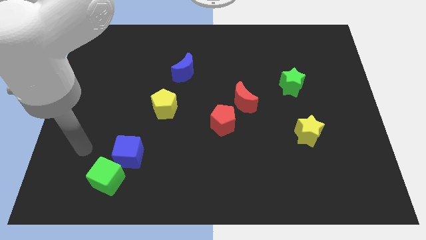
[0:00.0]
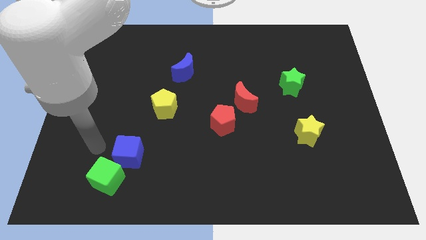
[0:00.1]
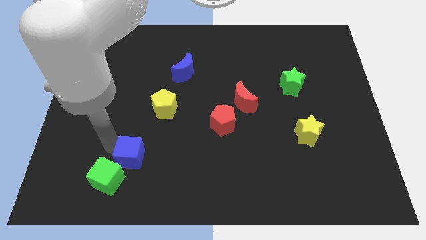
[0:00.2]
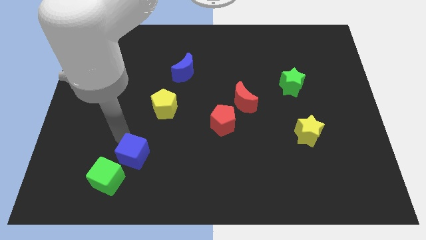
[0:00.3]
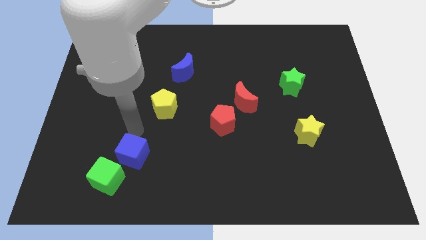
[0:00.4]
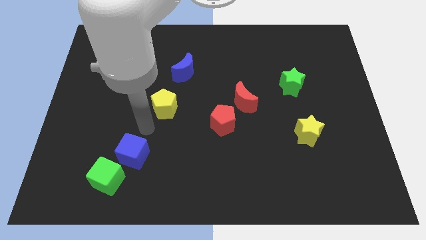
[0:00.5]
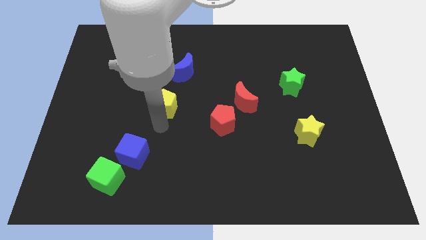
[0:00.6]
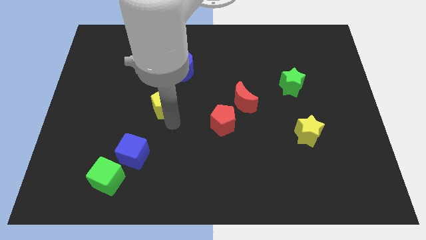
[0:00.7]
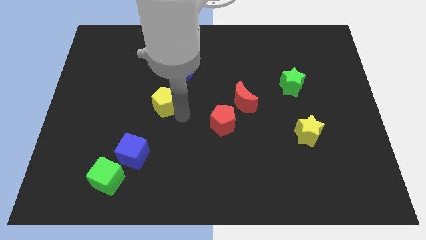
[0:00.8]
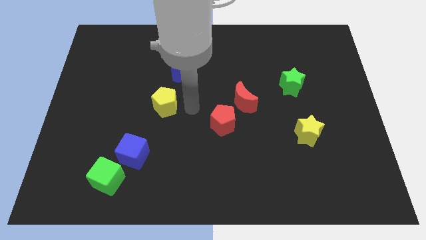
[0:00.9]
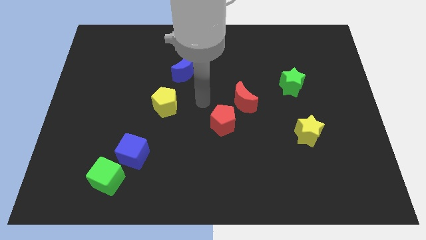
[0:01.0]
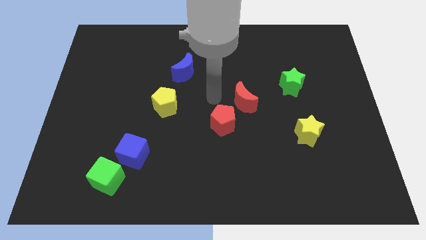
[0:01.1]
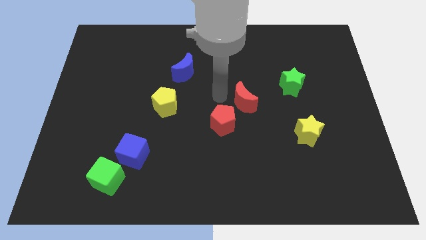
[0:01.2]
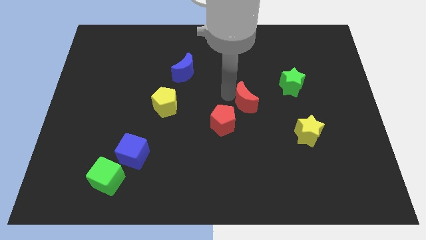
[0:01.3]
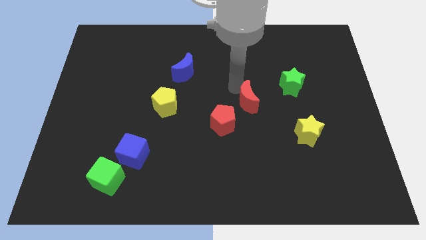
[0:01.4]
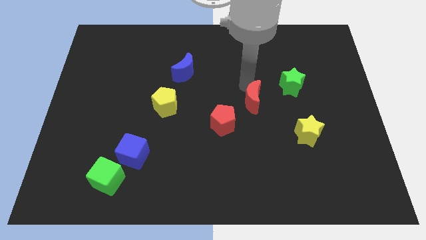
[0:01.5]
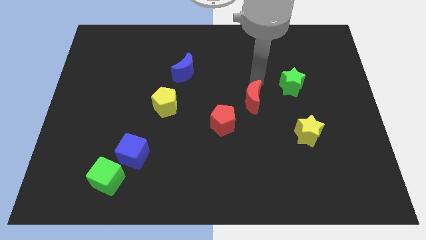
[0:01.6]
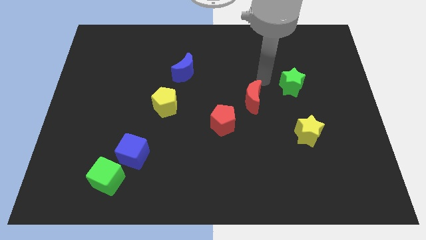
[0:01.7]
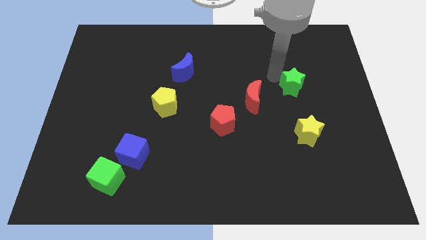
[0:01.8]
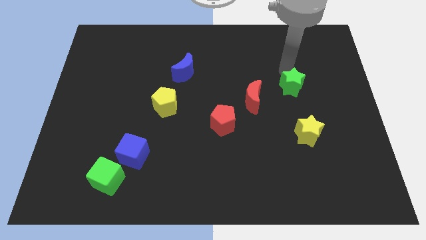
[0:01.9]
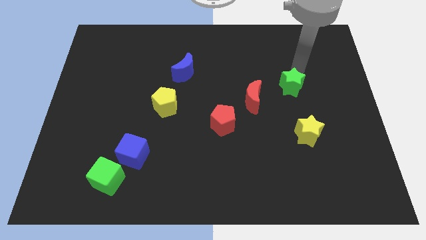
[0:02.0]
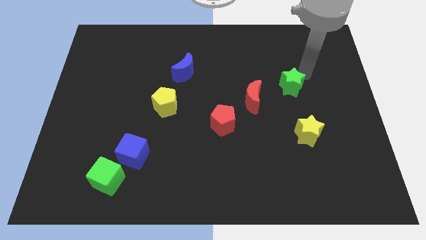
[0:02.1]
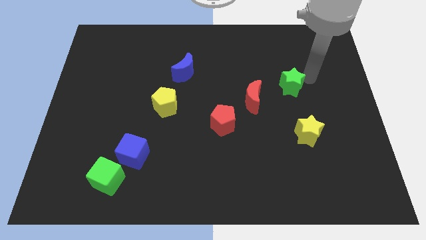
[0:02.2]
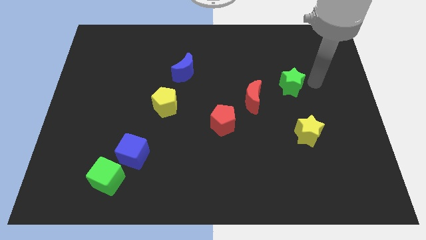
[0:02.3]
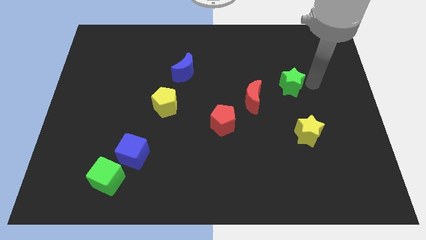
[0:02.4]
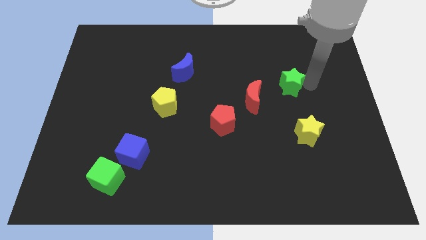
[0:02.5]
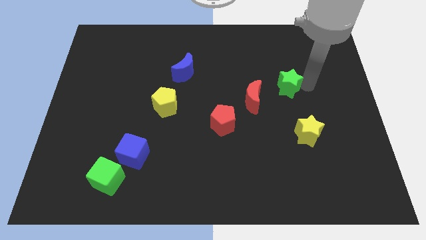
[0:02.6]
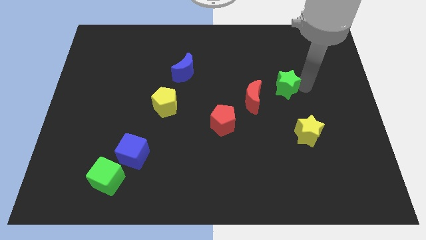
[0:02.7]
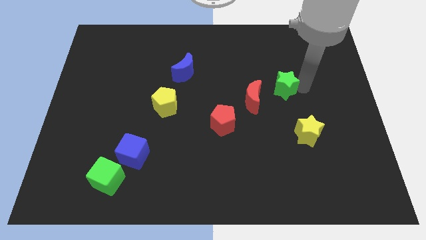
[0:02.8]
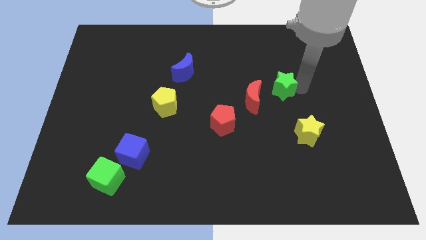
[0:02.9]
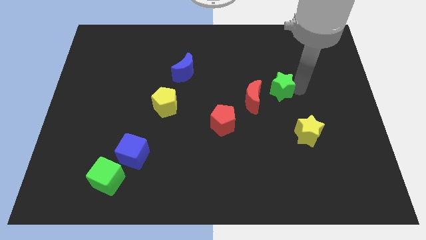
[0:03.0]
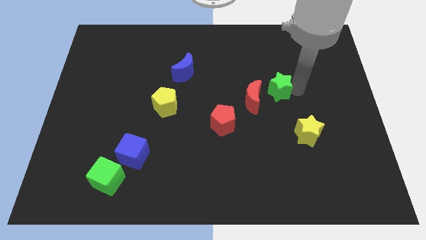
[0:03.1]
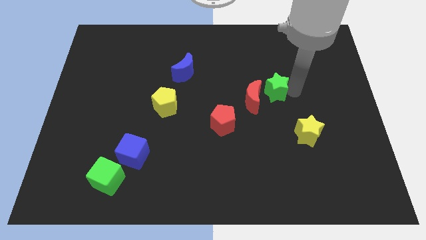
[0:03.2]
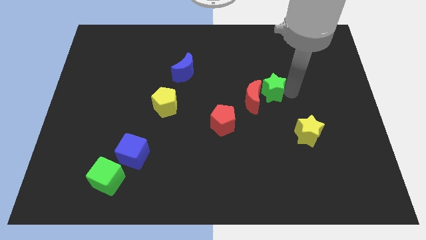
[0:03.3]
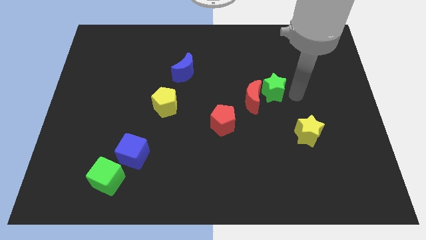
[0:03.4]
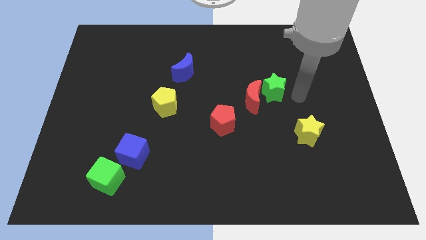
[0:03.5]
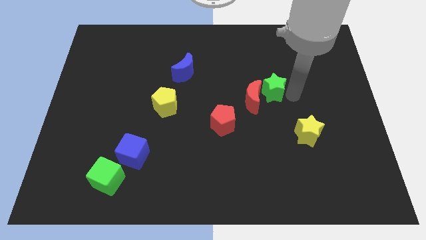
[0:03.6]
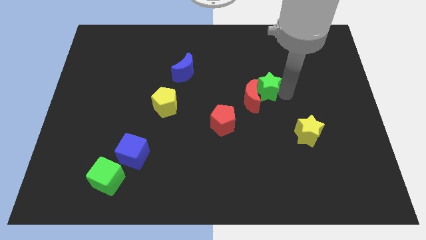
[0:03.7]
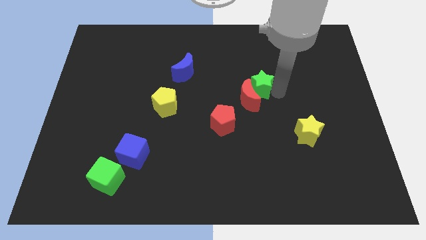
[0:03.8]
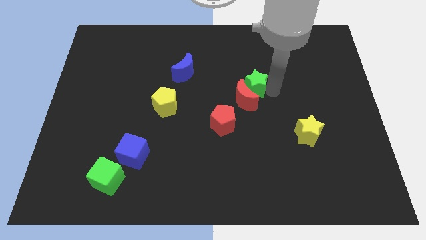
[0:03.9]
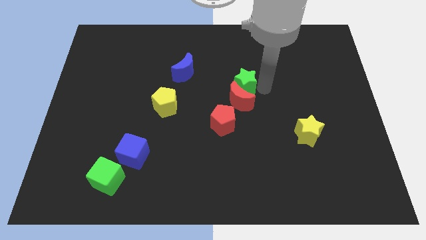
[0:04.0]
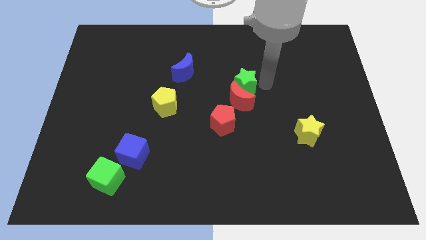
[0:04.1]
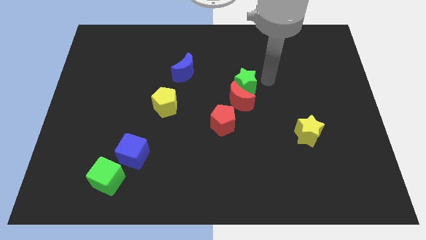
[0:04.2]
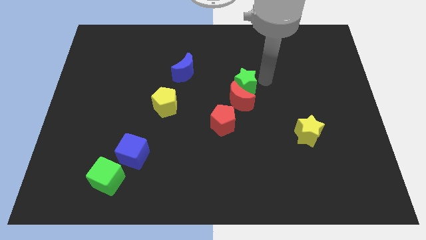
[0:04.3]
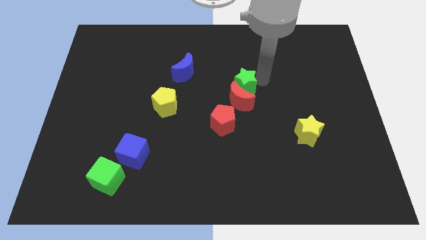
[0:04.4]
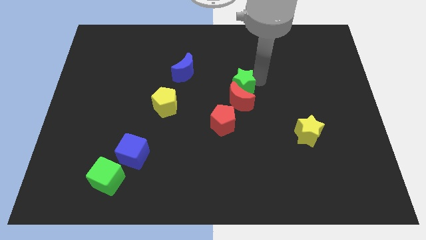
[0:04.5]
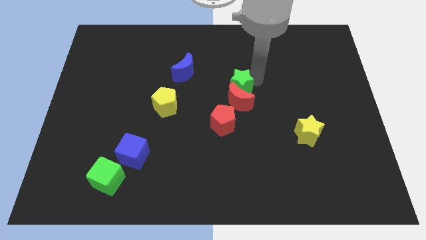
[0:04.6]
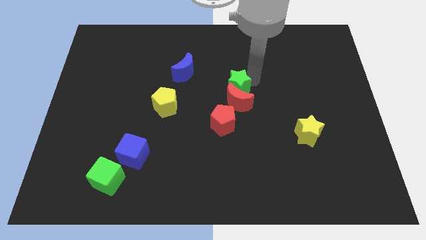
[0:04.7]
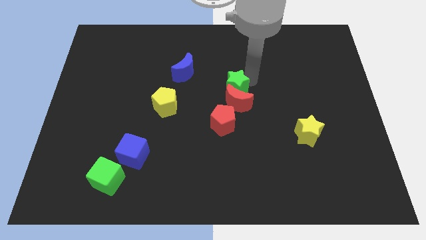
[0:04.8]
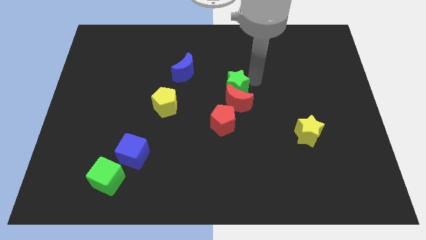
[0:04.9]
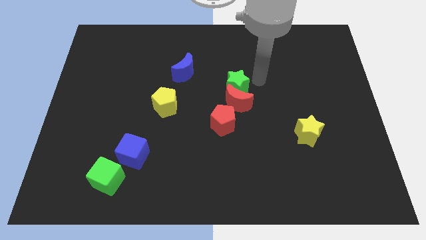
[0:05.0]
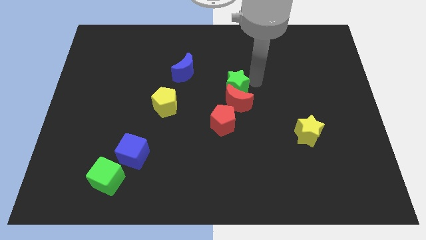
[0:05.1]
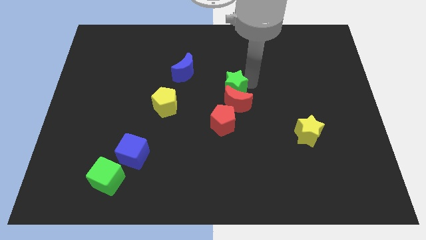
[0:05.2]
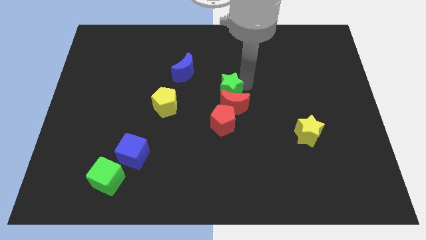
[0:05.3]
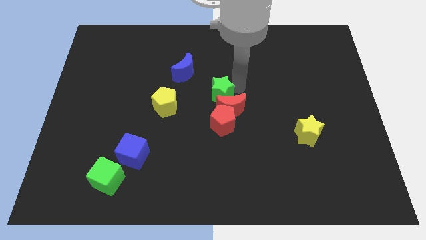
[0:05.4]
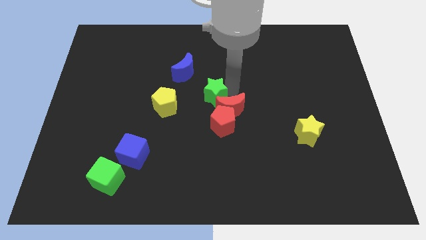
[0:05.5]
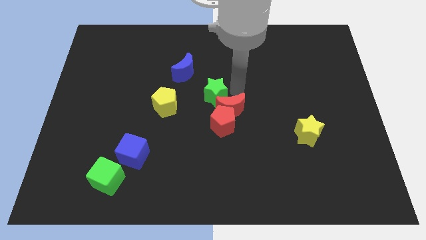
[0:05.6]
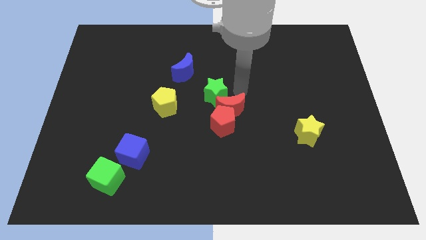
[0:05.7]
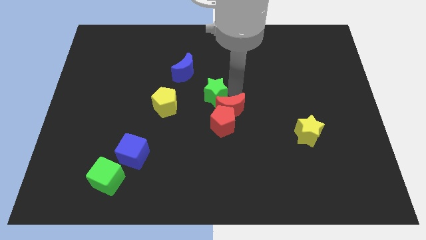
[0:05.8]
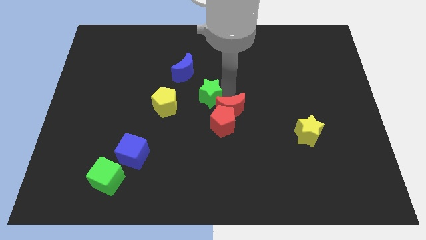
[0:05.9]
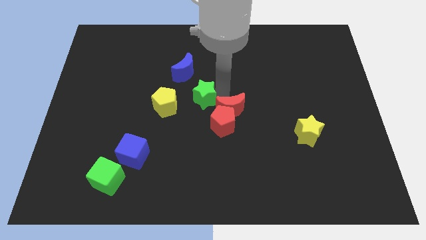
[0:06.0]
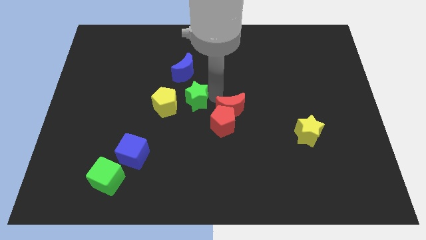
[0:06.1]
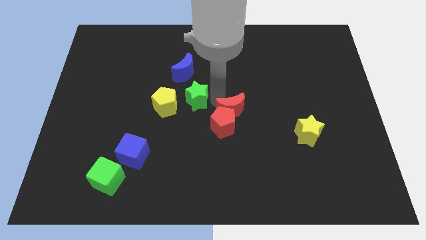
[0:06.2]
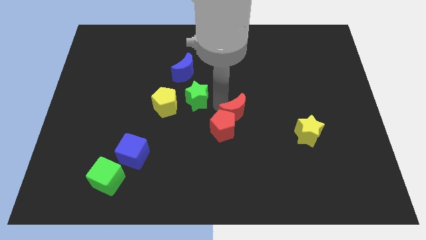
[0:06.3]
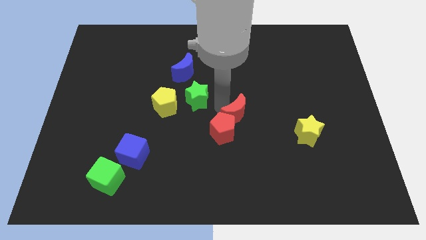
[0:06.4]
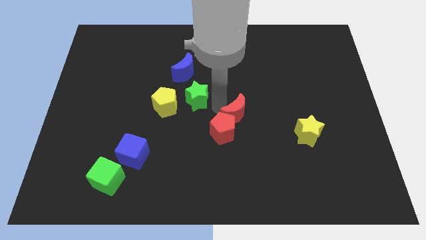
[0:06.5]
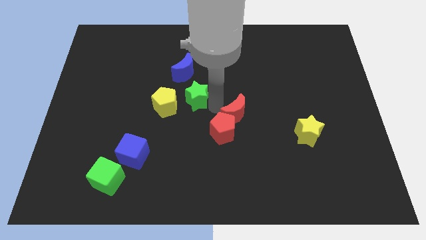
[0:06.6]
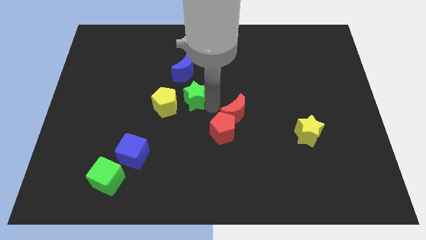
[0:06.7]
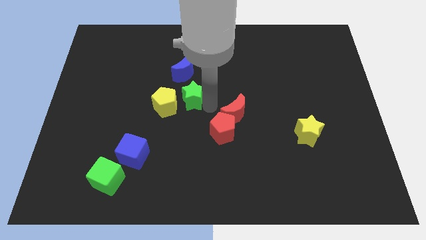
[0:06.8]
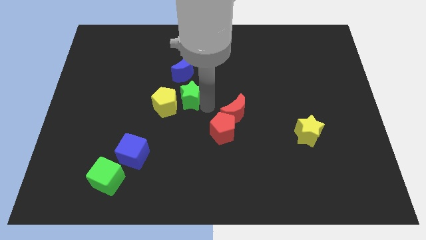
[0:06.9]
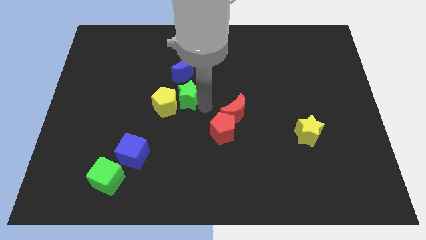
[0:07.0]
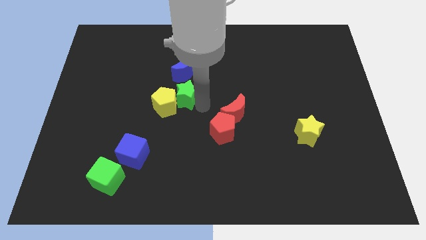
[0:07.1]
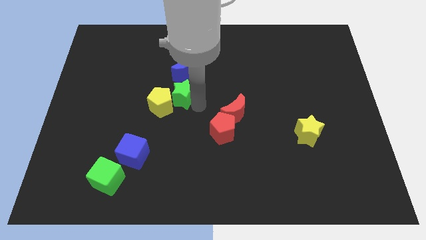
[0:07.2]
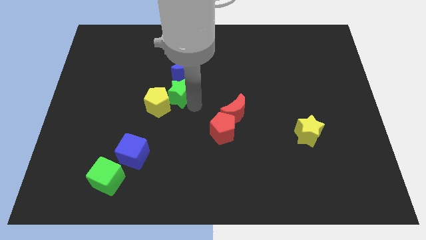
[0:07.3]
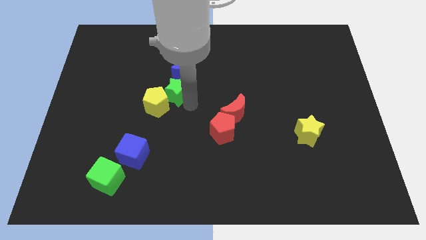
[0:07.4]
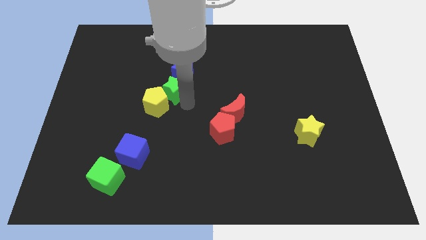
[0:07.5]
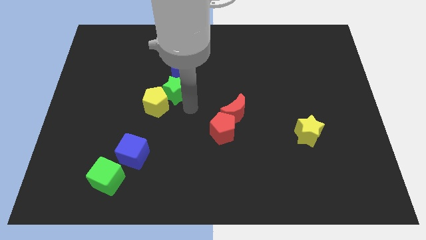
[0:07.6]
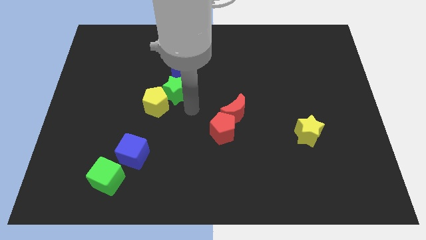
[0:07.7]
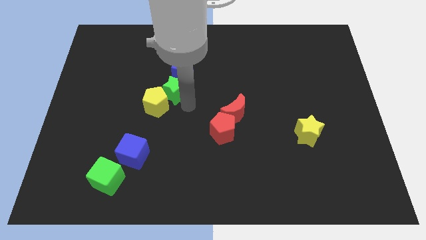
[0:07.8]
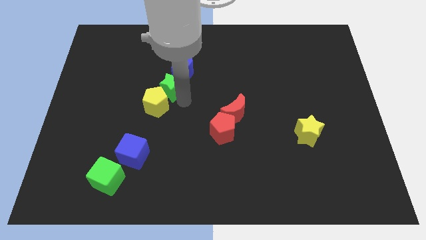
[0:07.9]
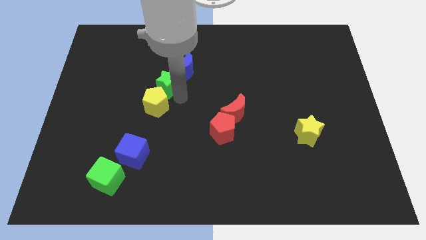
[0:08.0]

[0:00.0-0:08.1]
slide the green star to the left side of the blue moon

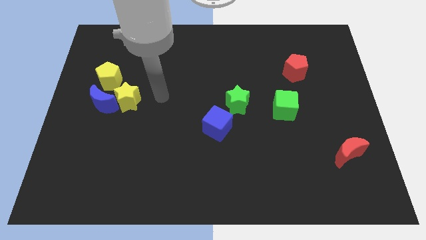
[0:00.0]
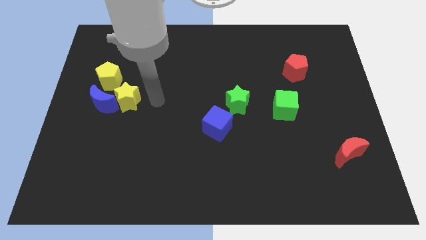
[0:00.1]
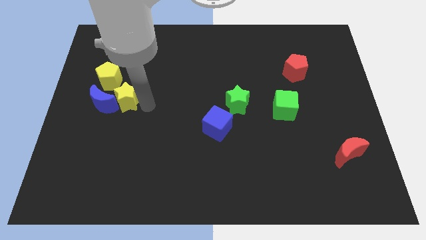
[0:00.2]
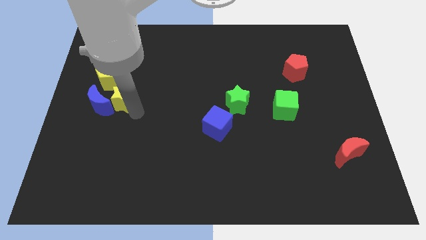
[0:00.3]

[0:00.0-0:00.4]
slide the yellow pentagon to the top of the yellow star
